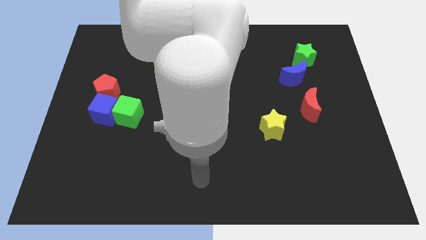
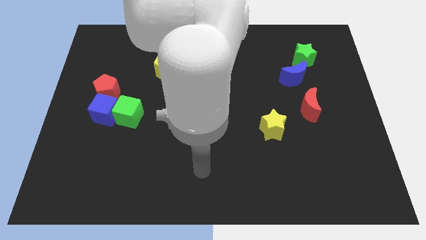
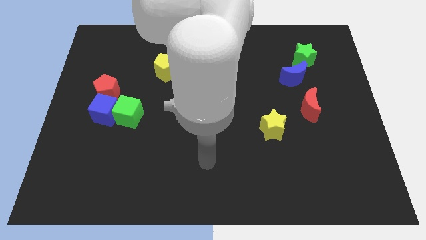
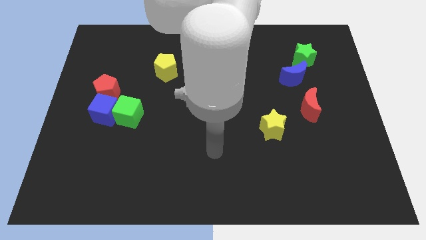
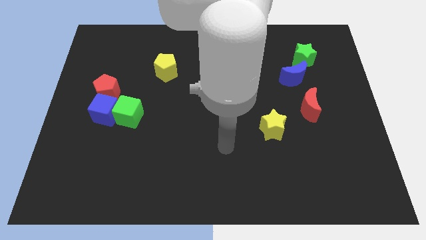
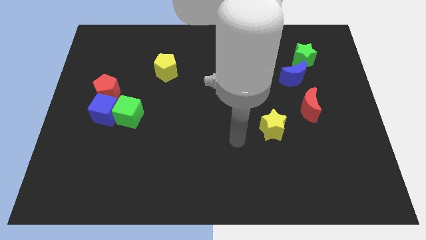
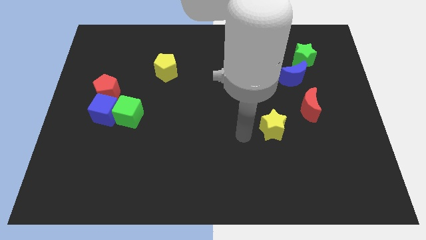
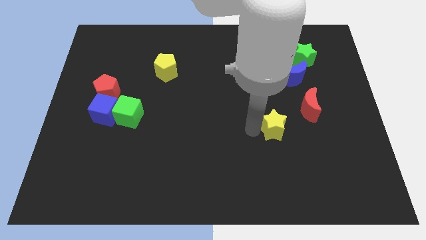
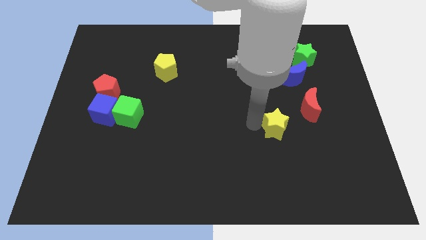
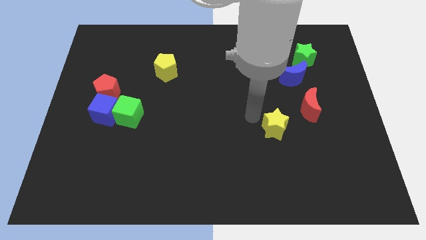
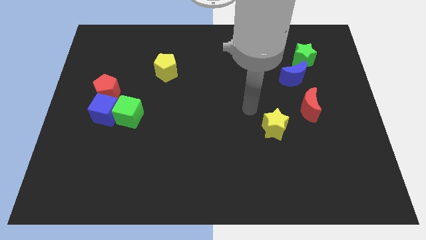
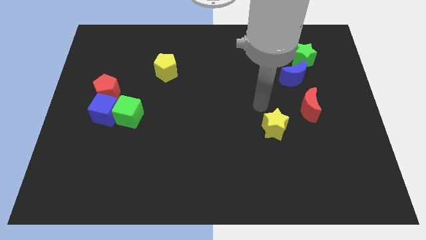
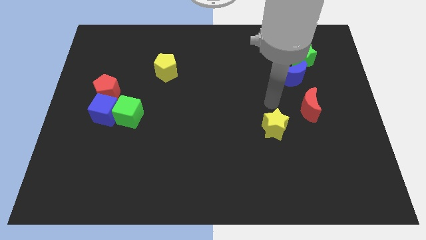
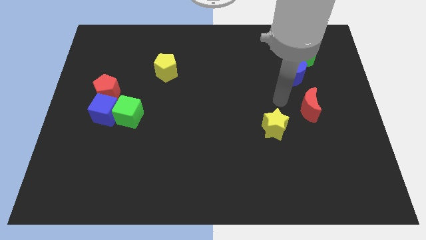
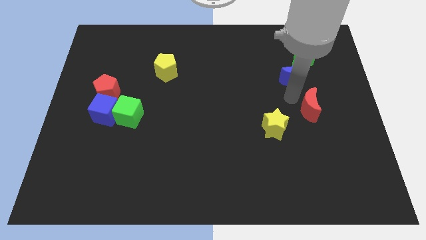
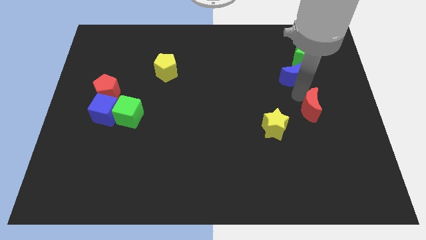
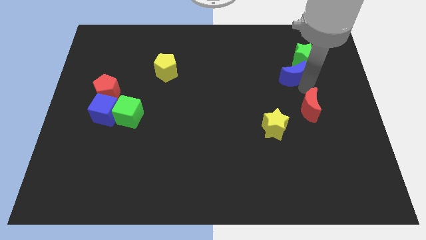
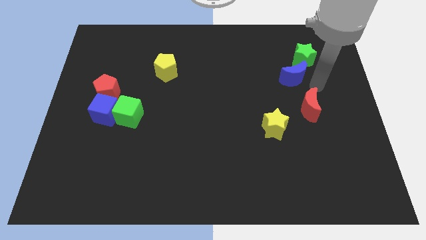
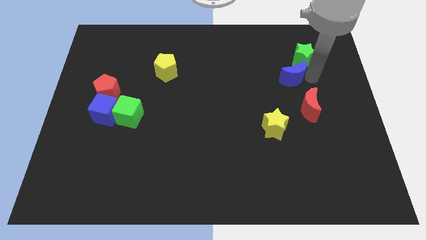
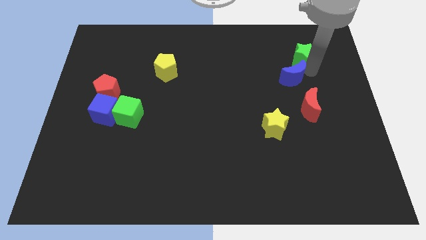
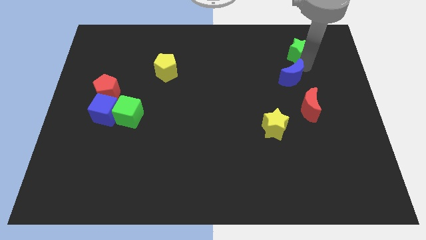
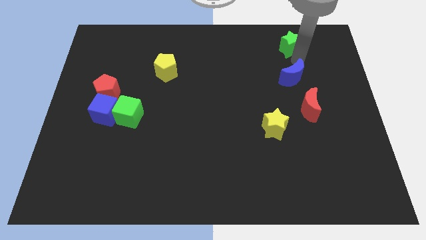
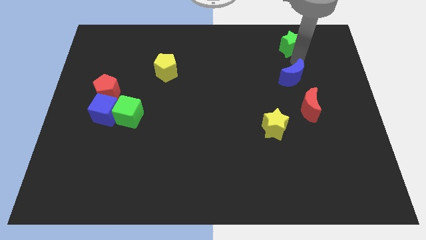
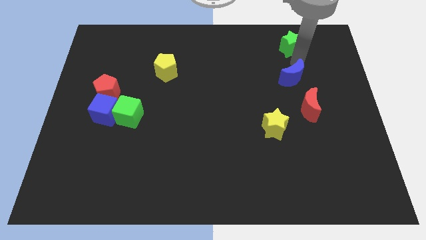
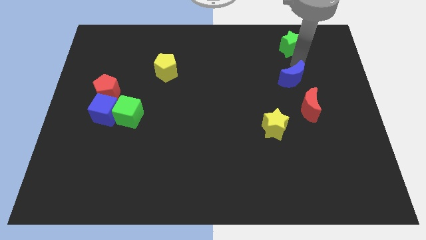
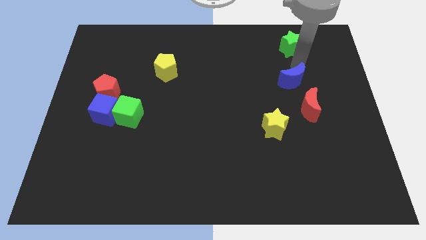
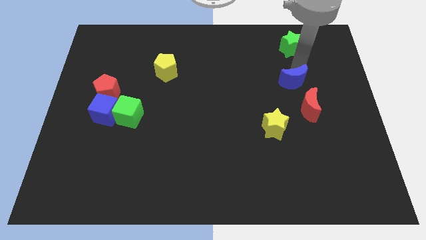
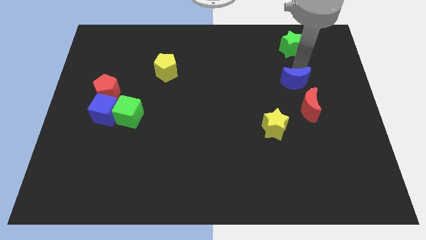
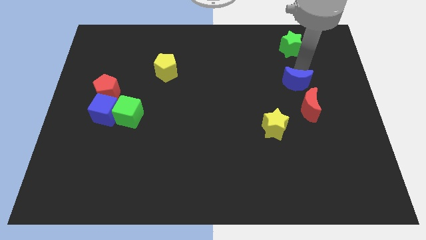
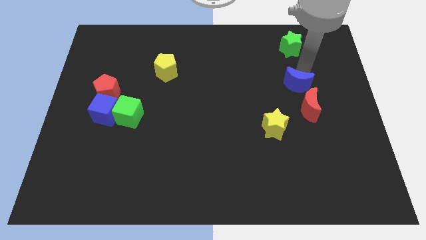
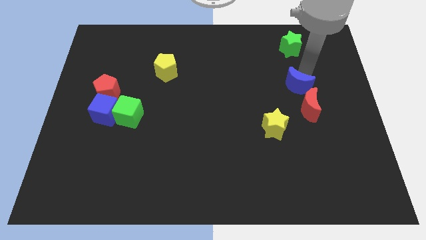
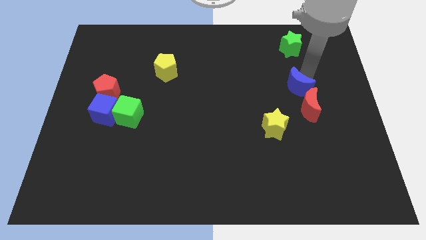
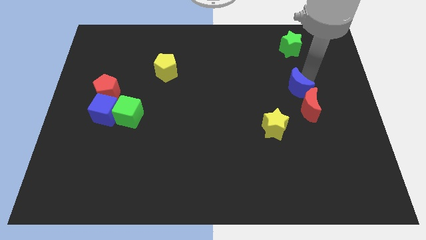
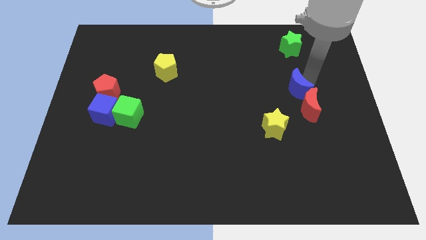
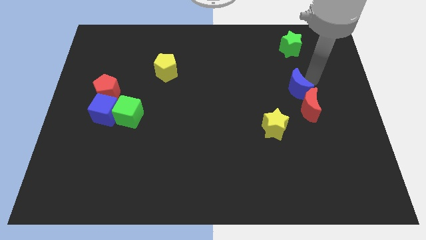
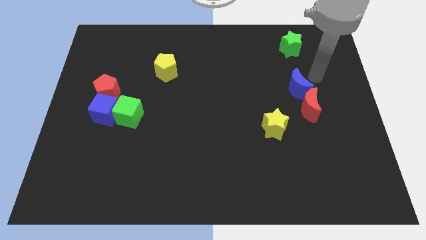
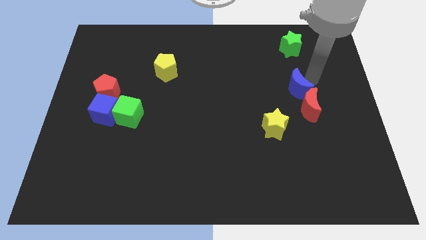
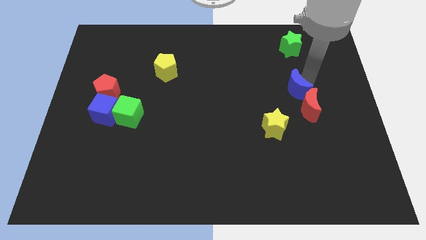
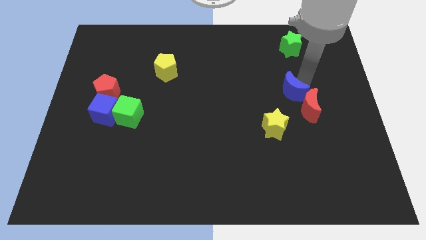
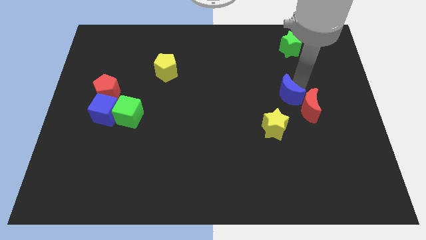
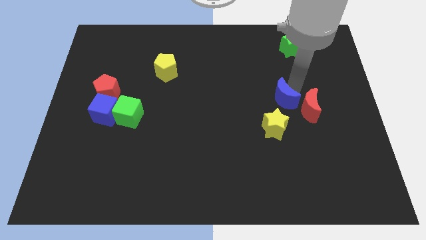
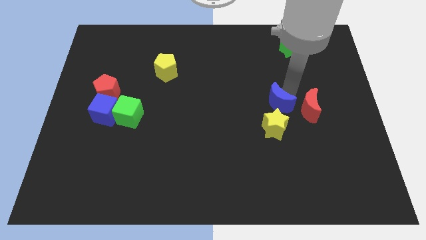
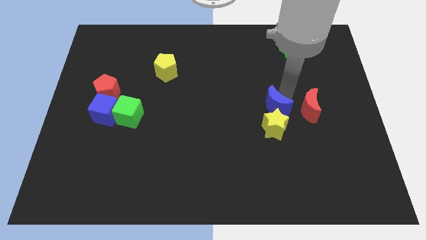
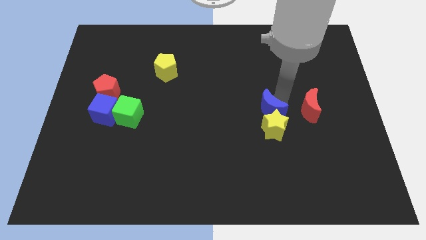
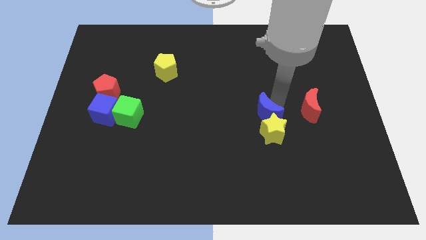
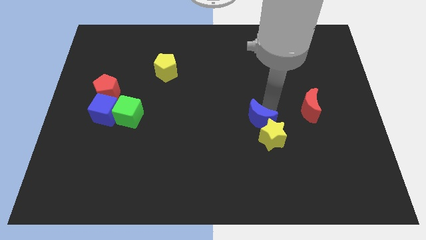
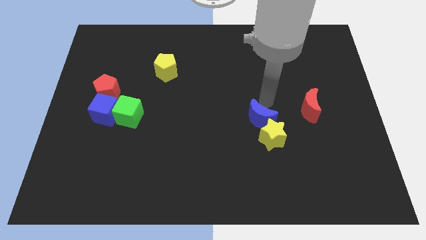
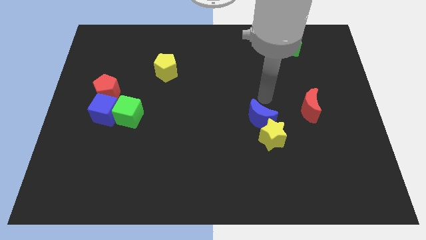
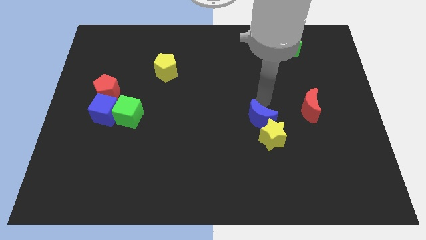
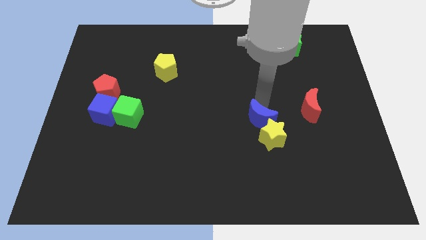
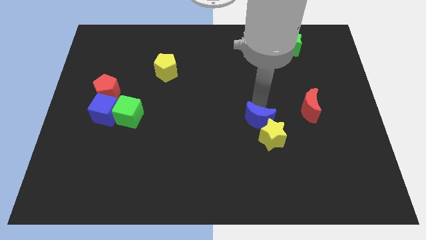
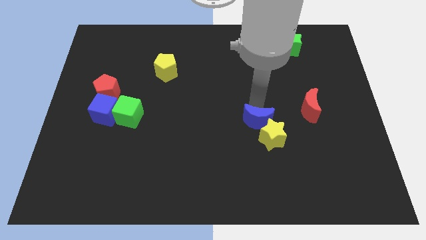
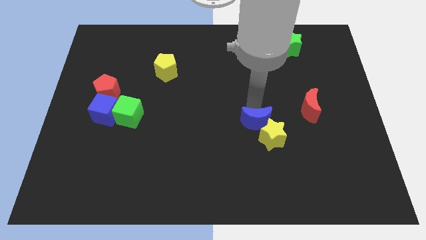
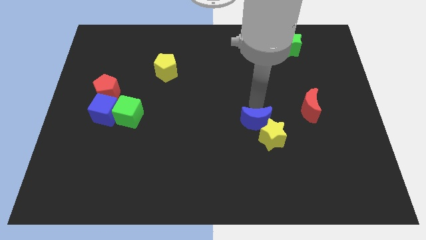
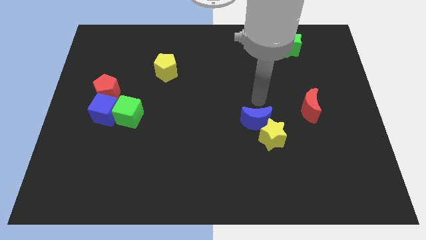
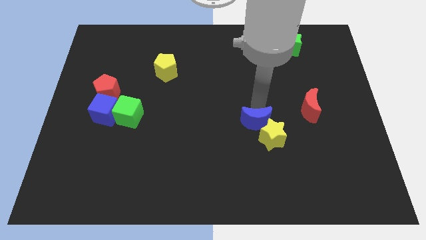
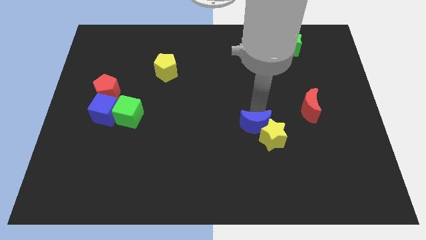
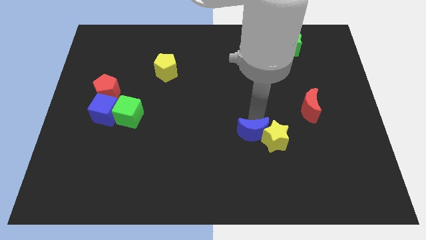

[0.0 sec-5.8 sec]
put the blue moon diagonally down and to the left of the yellow star
